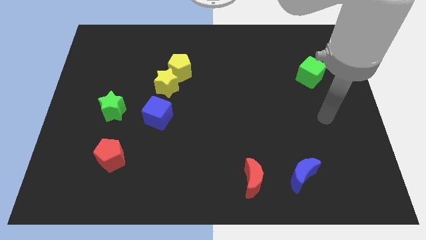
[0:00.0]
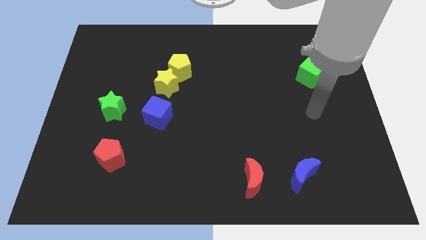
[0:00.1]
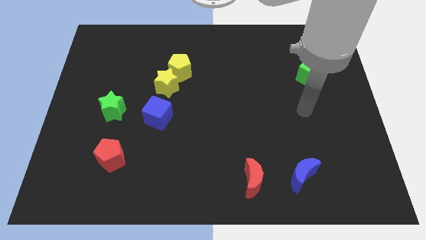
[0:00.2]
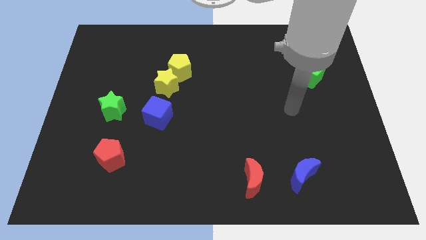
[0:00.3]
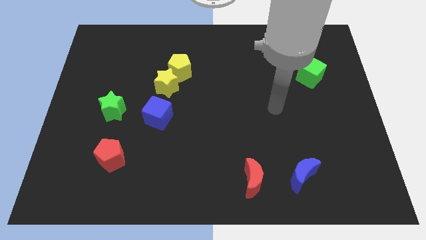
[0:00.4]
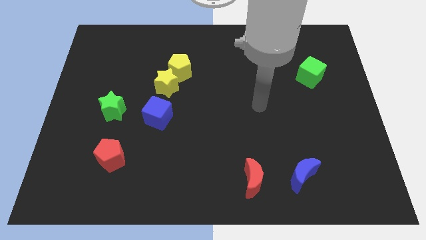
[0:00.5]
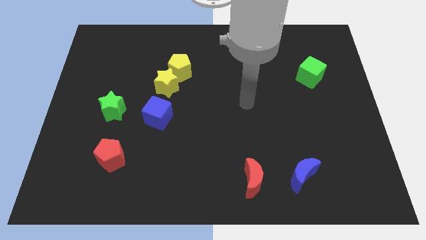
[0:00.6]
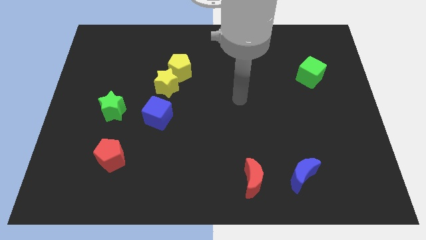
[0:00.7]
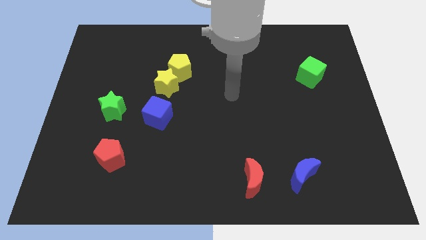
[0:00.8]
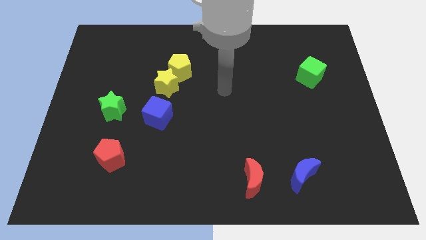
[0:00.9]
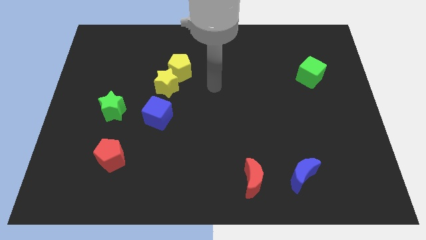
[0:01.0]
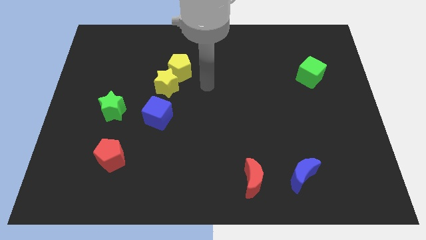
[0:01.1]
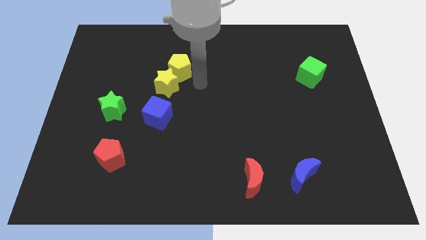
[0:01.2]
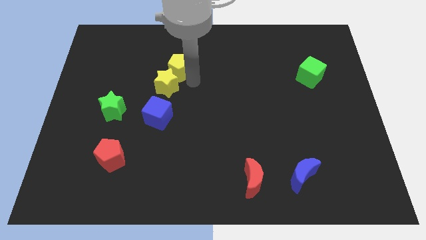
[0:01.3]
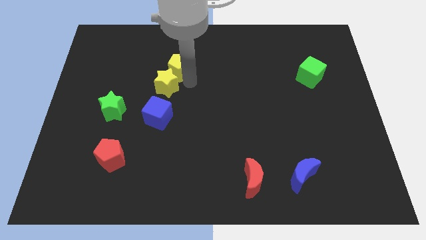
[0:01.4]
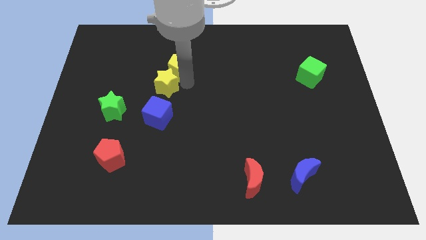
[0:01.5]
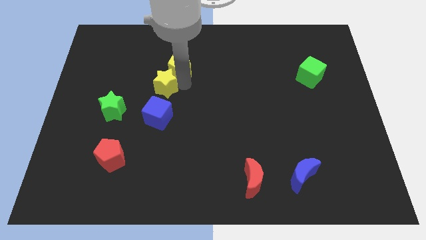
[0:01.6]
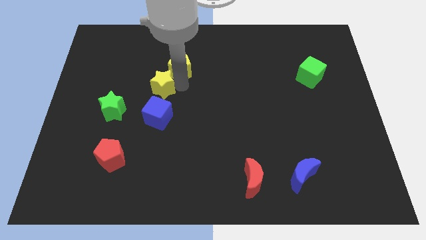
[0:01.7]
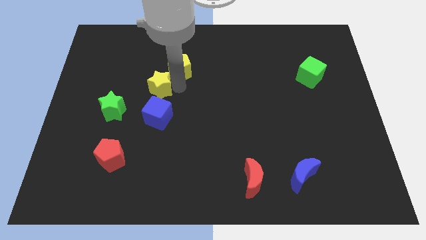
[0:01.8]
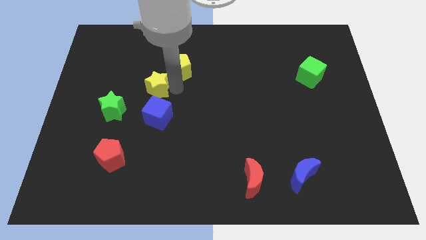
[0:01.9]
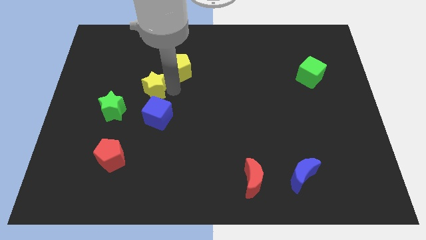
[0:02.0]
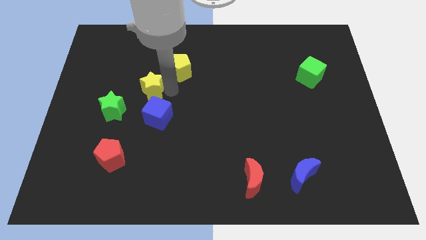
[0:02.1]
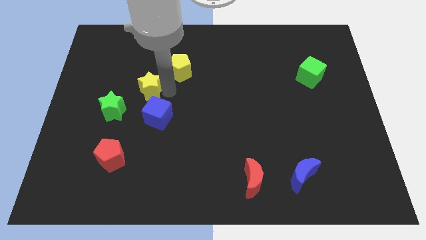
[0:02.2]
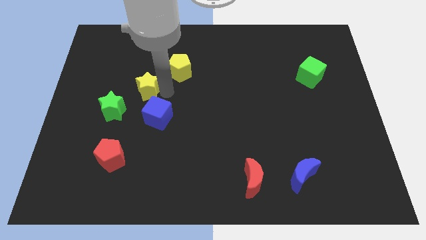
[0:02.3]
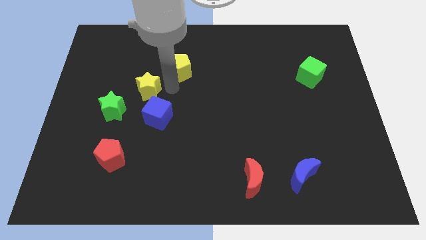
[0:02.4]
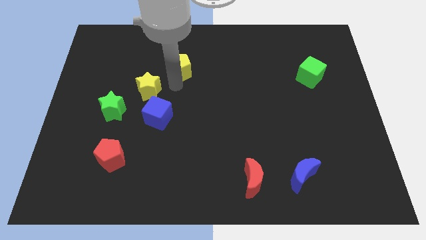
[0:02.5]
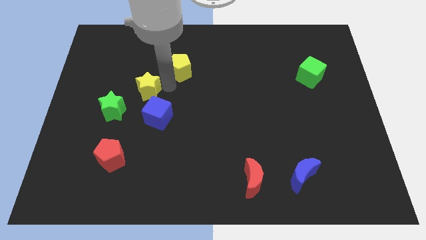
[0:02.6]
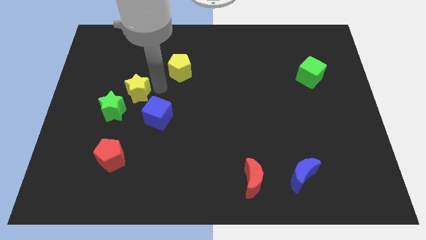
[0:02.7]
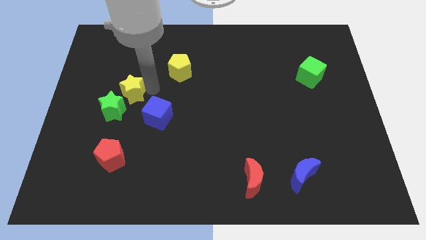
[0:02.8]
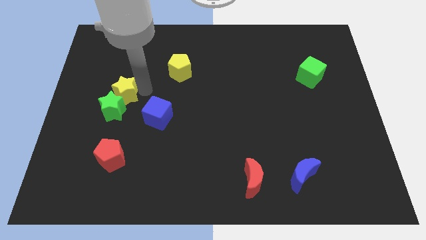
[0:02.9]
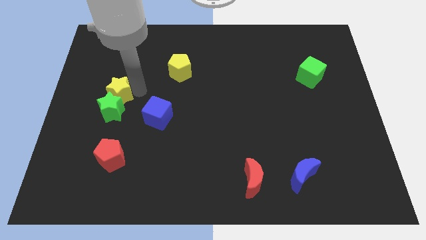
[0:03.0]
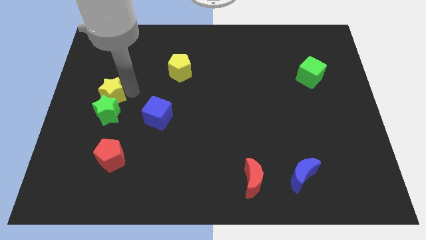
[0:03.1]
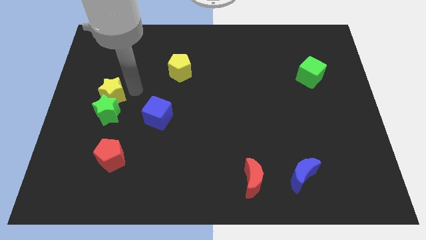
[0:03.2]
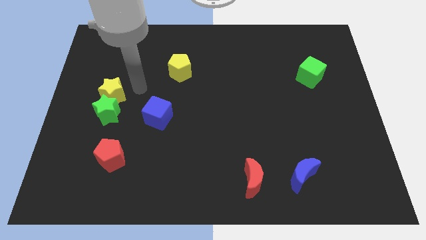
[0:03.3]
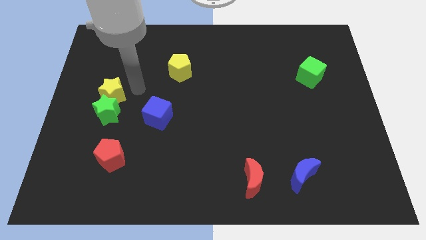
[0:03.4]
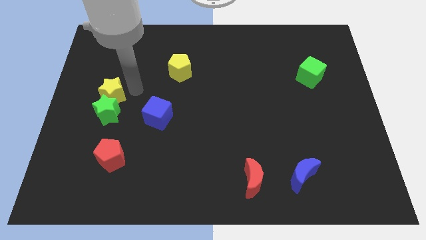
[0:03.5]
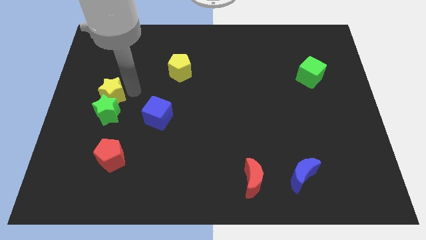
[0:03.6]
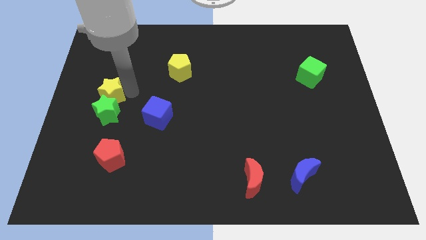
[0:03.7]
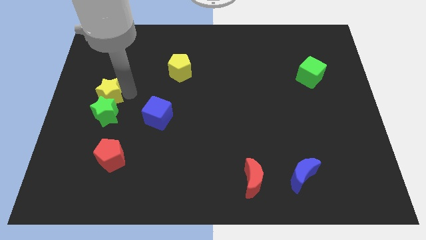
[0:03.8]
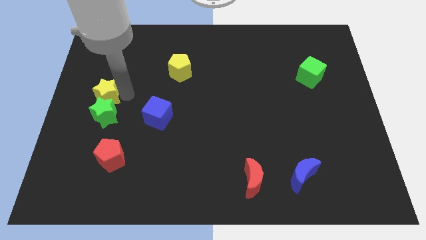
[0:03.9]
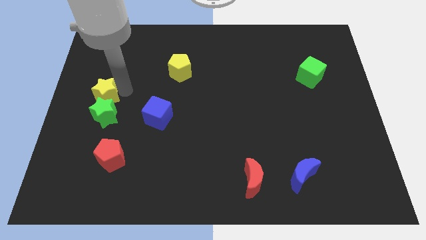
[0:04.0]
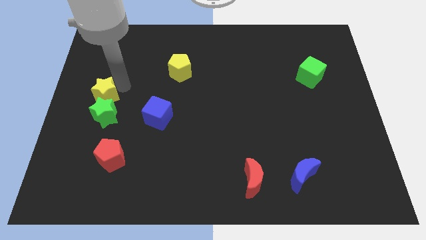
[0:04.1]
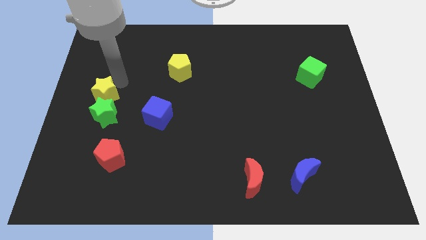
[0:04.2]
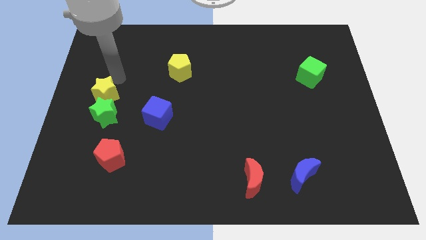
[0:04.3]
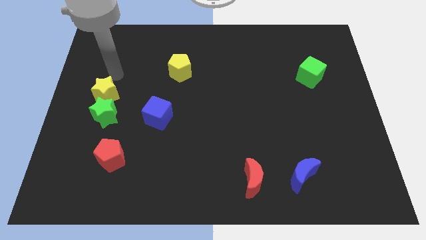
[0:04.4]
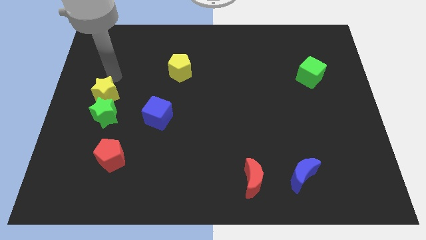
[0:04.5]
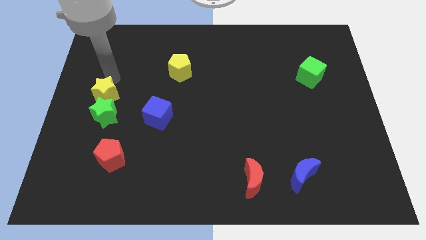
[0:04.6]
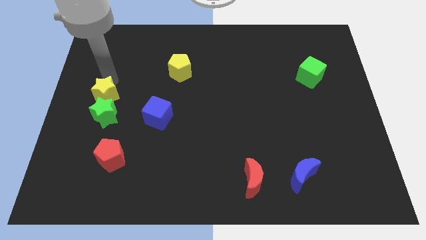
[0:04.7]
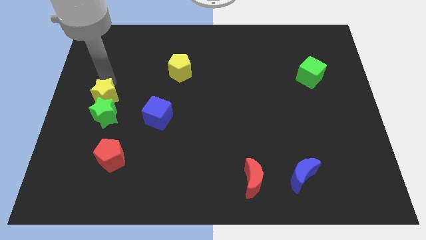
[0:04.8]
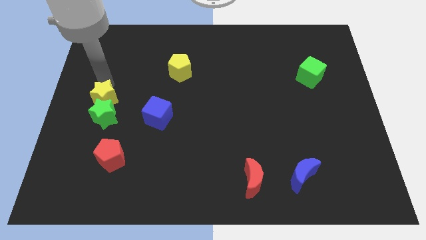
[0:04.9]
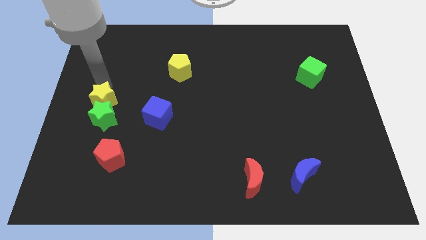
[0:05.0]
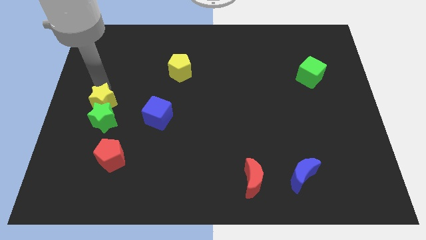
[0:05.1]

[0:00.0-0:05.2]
push the yellow star to the left of the blue cube

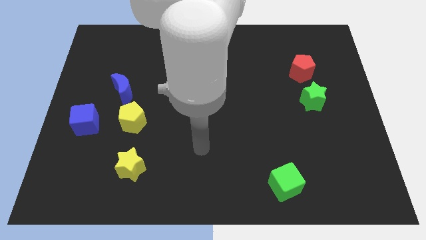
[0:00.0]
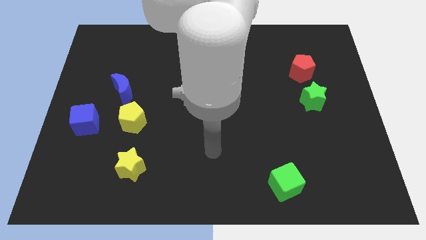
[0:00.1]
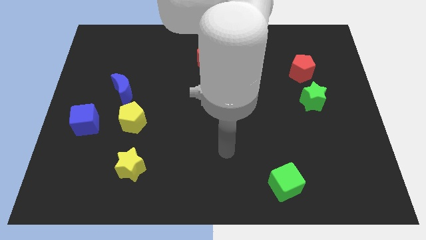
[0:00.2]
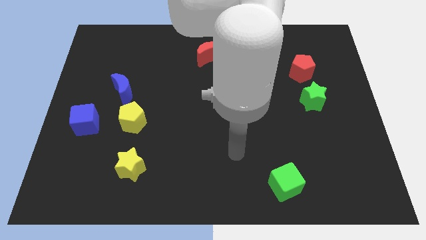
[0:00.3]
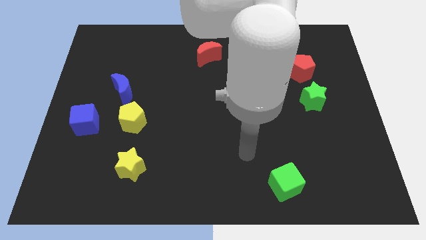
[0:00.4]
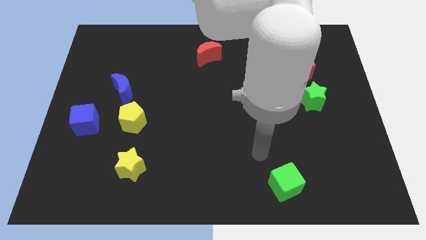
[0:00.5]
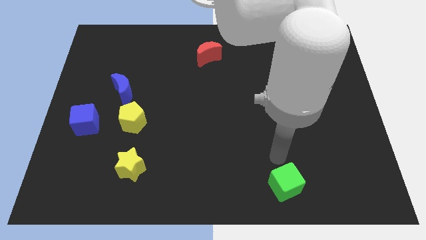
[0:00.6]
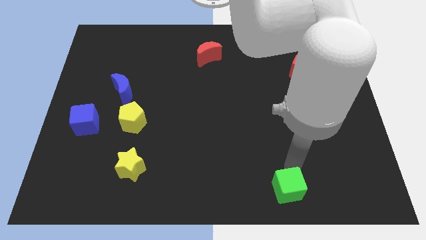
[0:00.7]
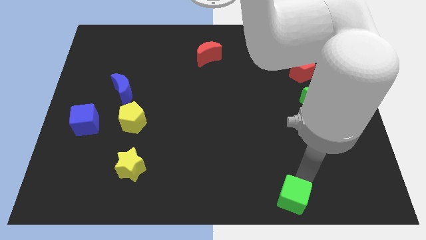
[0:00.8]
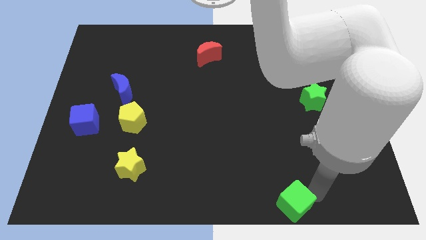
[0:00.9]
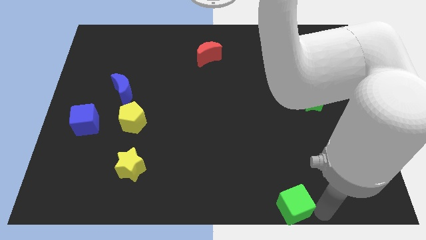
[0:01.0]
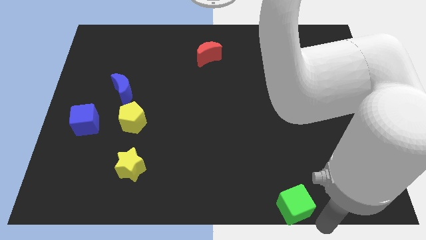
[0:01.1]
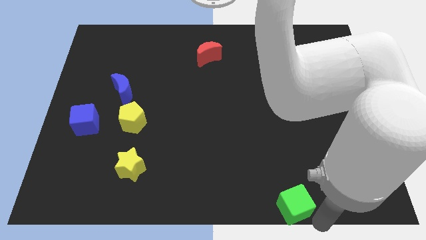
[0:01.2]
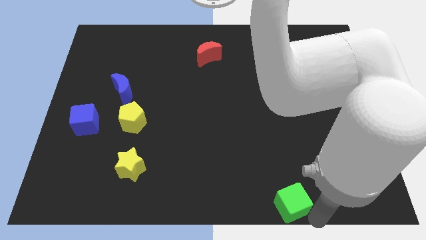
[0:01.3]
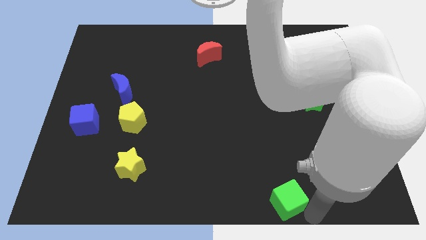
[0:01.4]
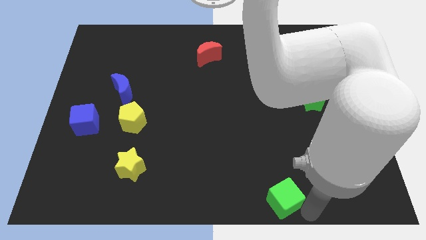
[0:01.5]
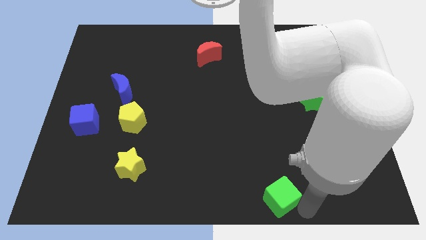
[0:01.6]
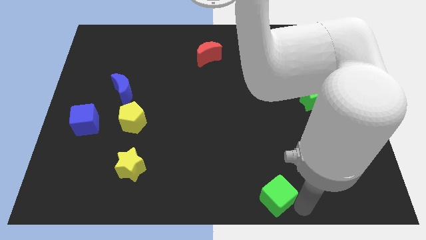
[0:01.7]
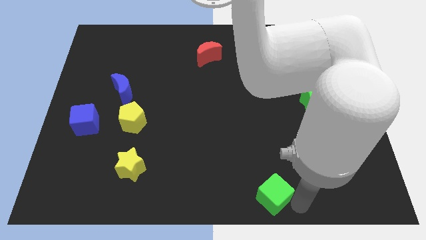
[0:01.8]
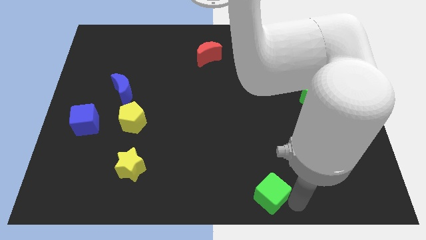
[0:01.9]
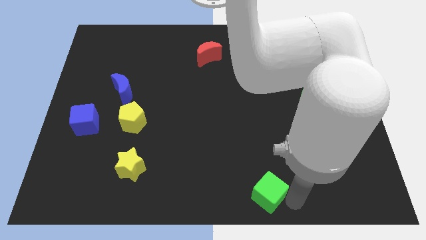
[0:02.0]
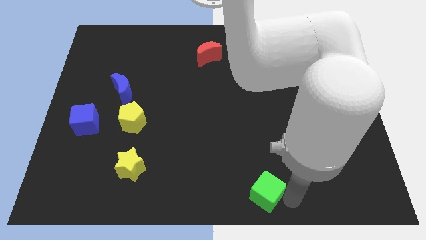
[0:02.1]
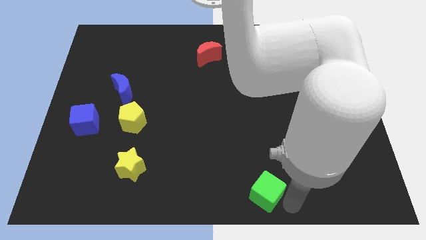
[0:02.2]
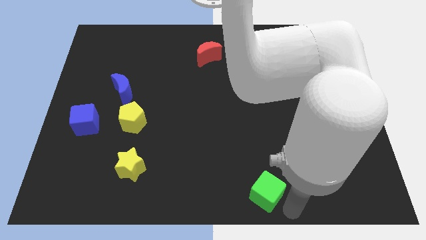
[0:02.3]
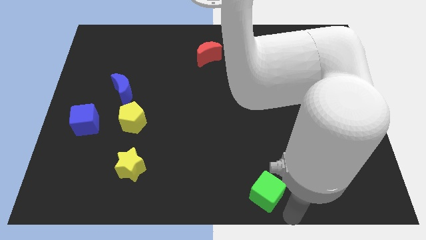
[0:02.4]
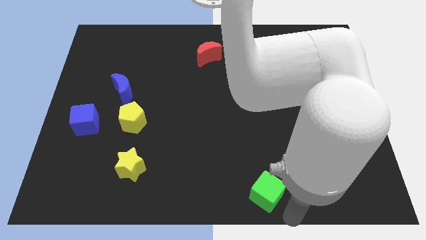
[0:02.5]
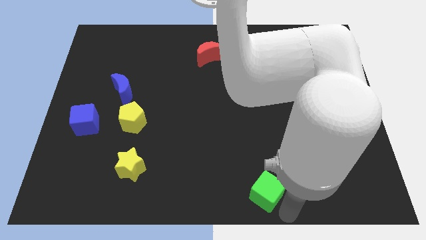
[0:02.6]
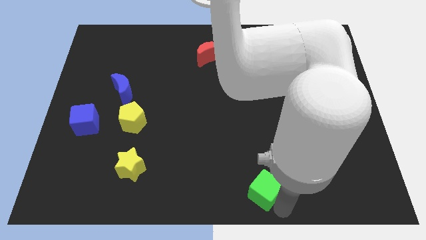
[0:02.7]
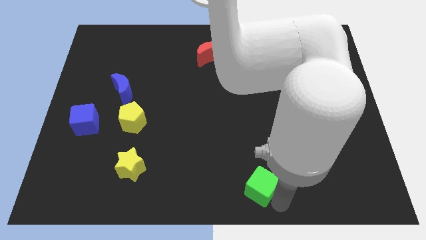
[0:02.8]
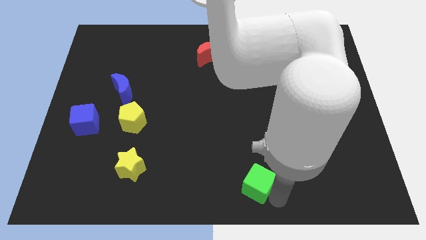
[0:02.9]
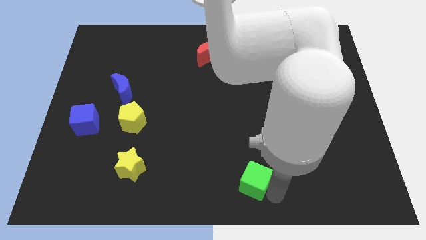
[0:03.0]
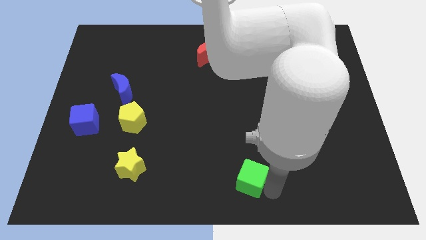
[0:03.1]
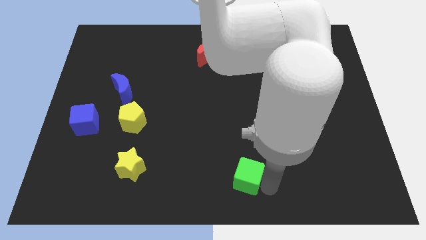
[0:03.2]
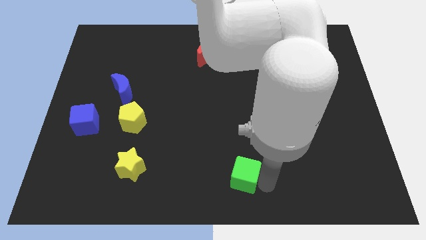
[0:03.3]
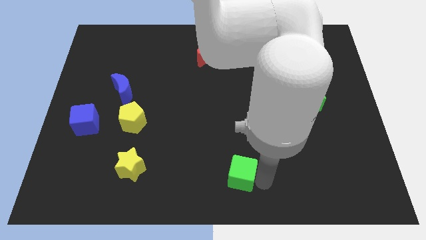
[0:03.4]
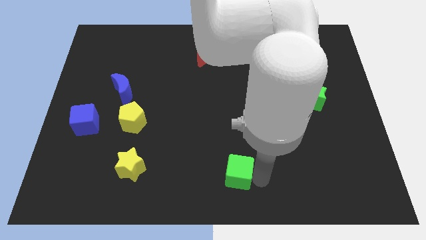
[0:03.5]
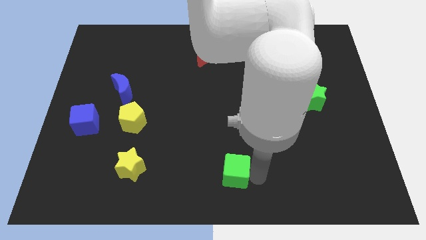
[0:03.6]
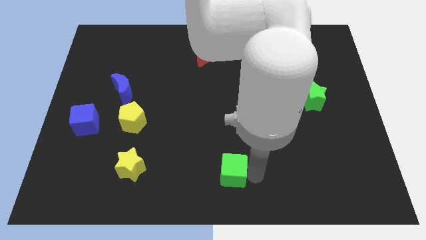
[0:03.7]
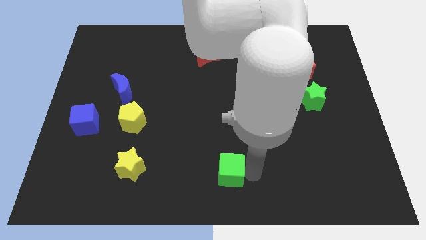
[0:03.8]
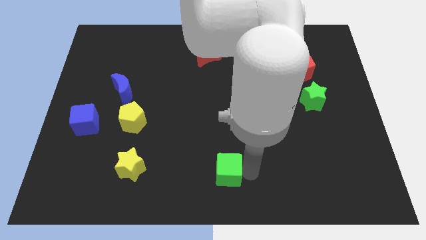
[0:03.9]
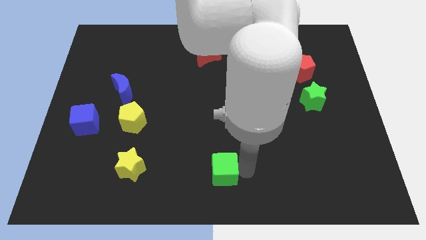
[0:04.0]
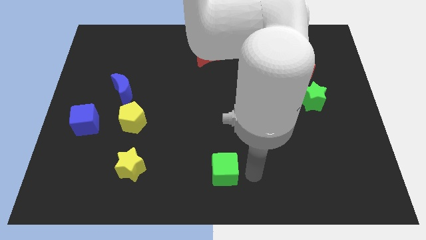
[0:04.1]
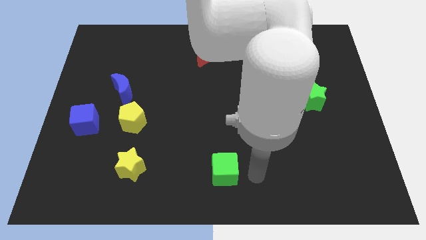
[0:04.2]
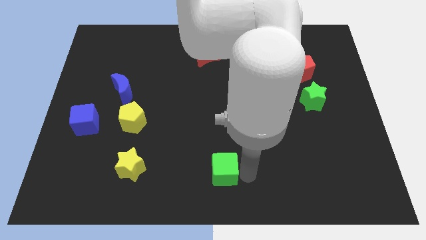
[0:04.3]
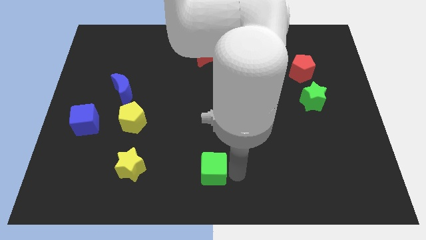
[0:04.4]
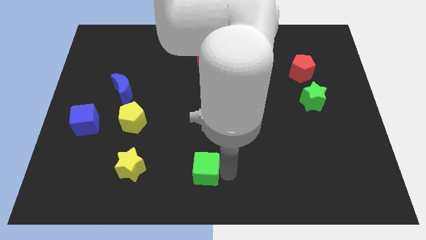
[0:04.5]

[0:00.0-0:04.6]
put the green cube to the right of the yellow star
